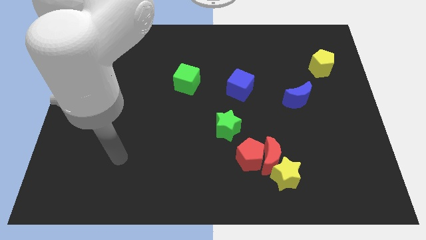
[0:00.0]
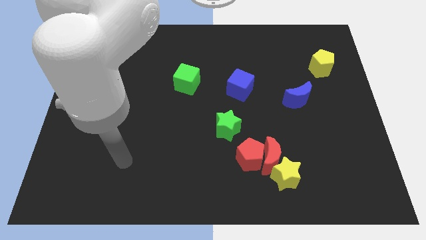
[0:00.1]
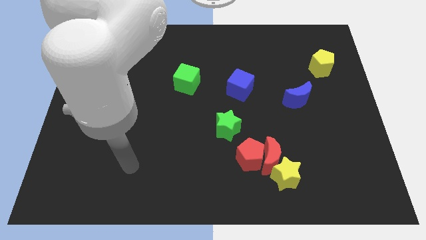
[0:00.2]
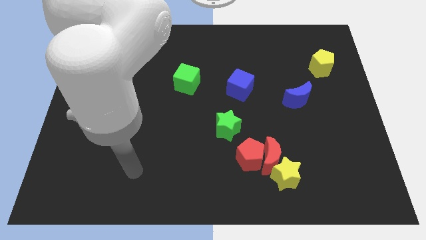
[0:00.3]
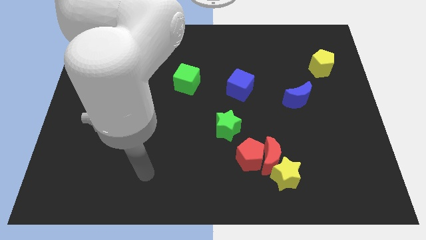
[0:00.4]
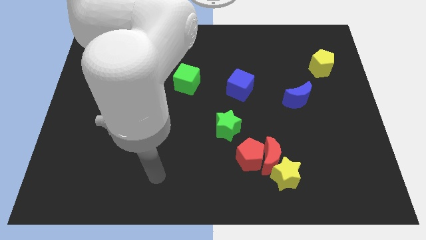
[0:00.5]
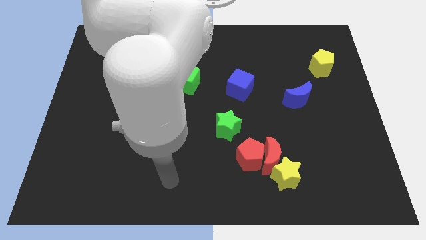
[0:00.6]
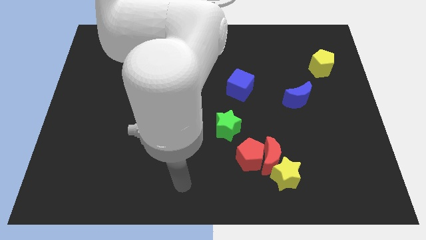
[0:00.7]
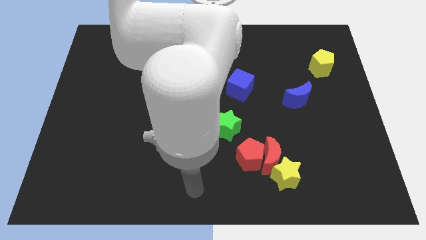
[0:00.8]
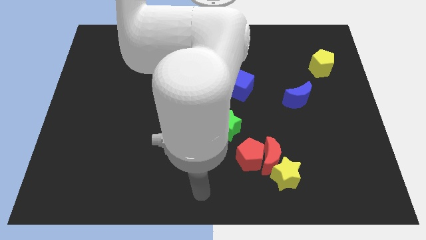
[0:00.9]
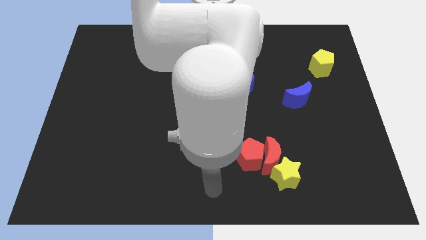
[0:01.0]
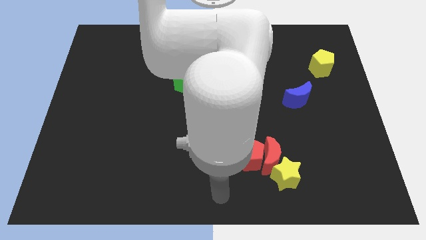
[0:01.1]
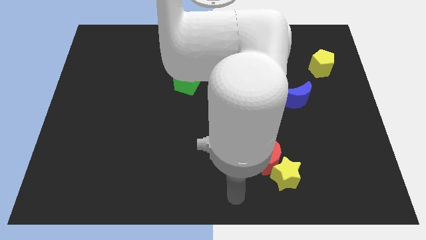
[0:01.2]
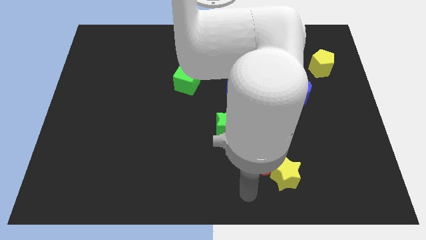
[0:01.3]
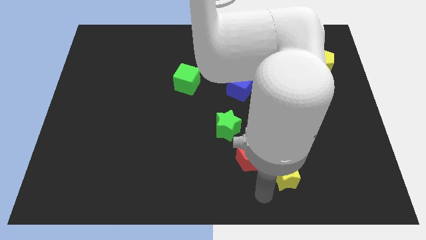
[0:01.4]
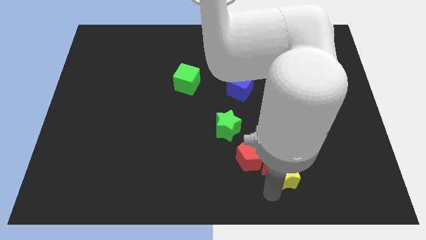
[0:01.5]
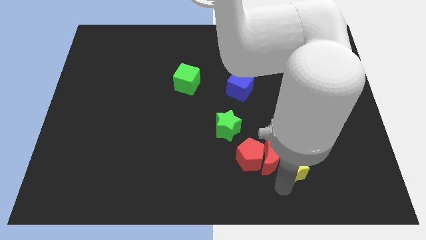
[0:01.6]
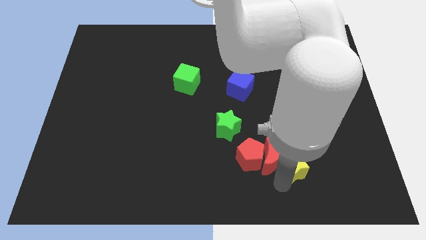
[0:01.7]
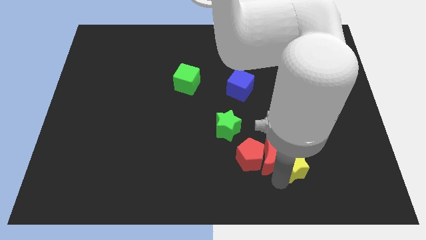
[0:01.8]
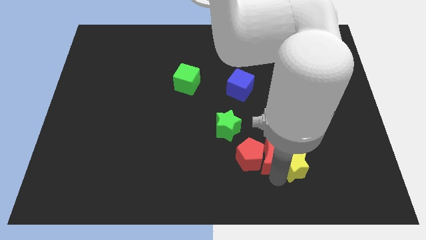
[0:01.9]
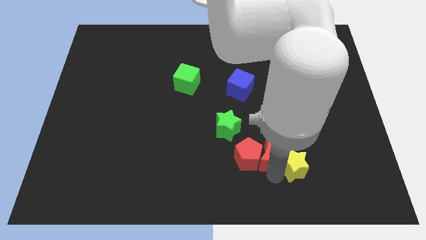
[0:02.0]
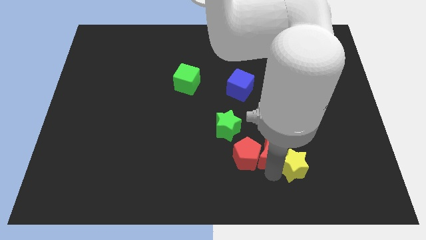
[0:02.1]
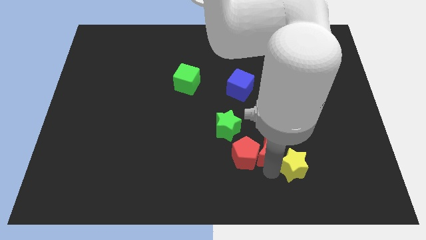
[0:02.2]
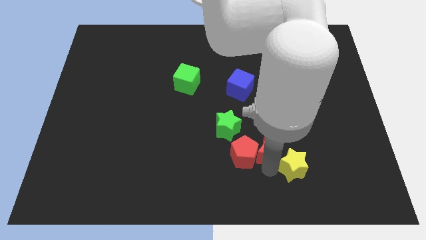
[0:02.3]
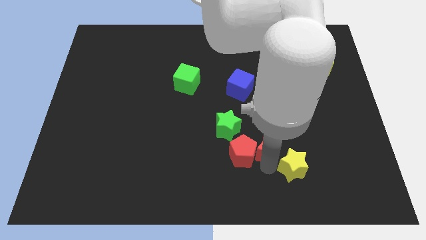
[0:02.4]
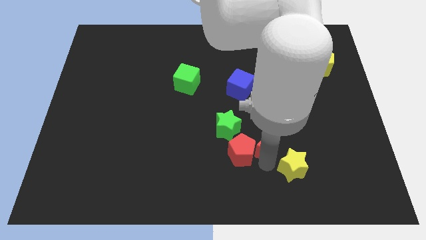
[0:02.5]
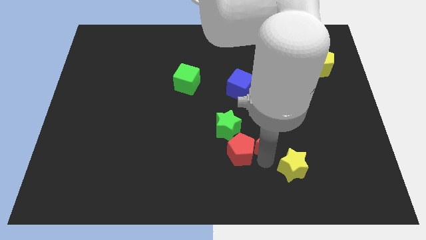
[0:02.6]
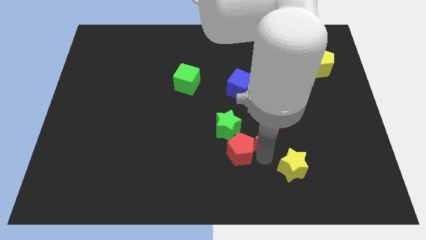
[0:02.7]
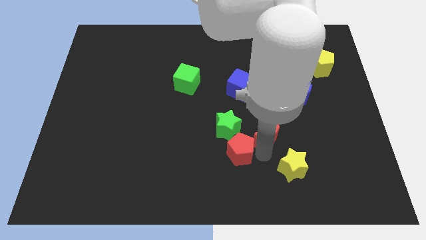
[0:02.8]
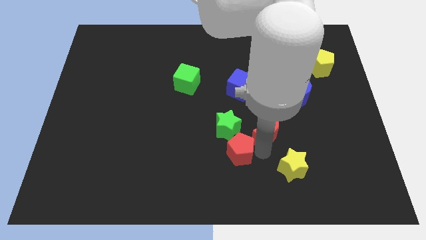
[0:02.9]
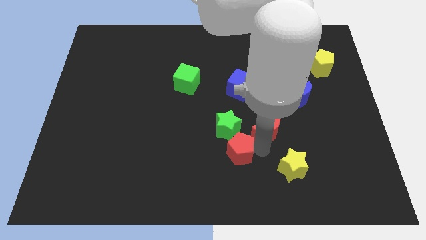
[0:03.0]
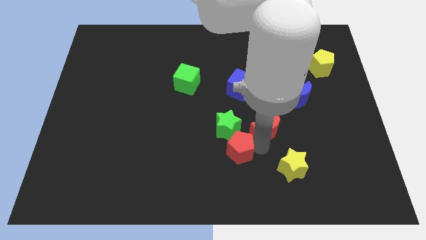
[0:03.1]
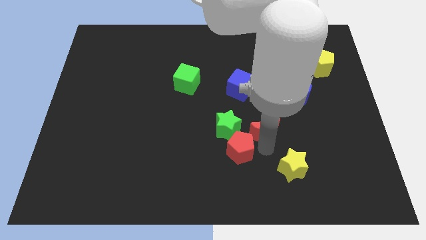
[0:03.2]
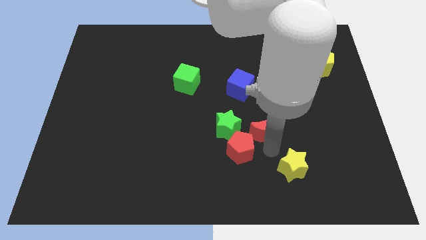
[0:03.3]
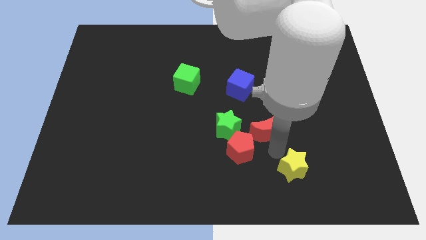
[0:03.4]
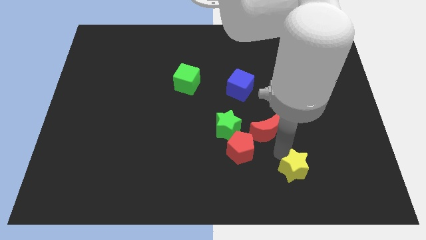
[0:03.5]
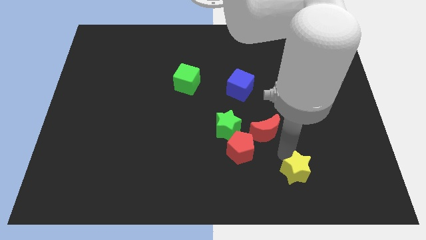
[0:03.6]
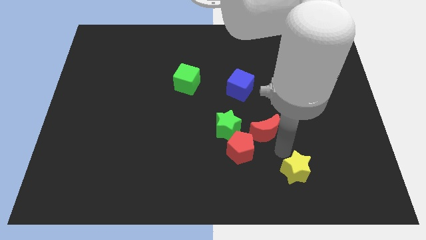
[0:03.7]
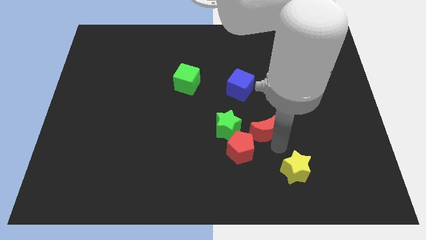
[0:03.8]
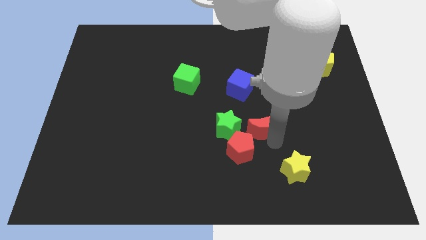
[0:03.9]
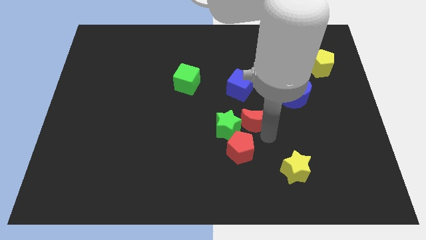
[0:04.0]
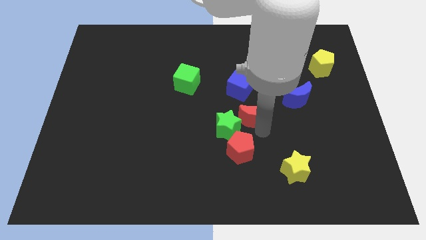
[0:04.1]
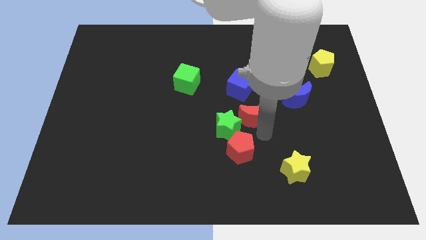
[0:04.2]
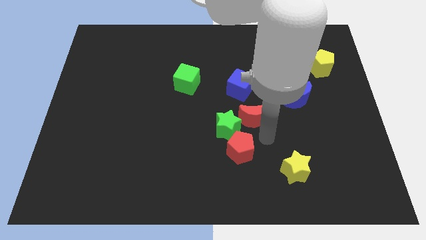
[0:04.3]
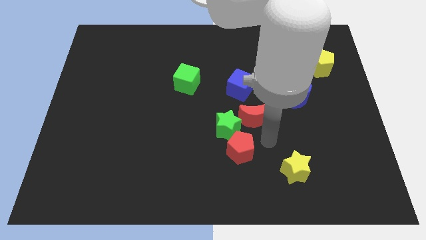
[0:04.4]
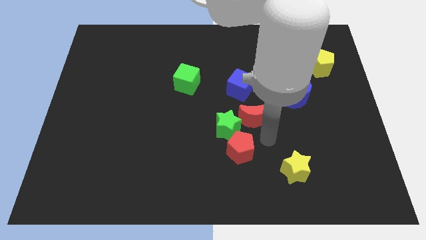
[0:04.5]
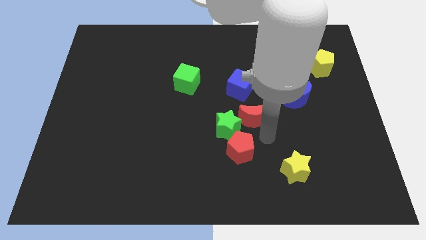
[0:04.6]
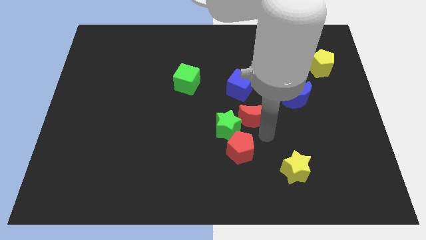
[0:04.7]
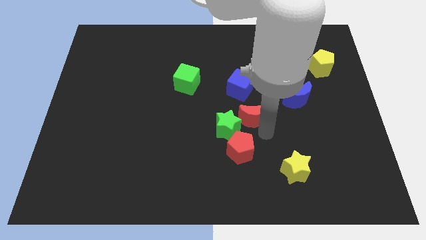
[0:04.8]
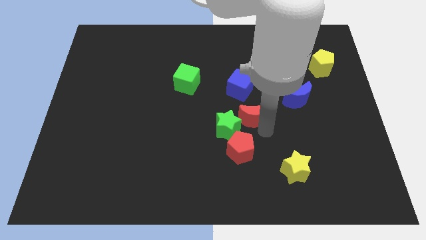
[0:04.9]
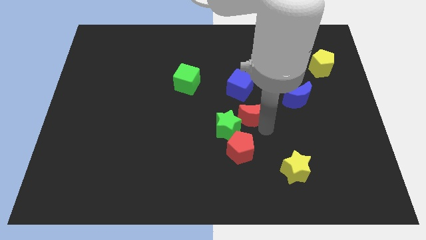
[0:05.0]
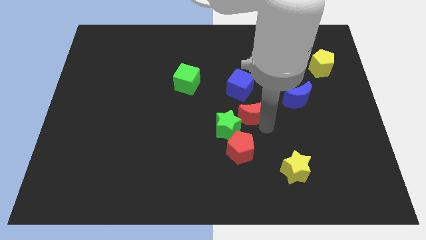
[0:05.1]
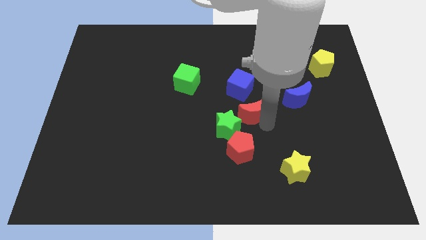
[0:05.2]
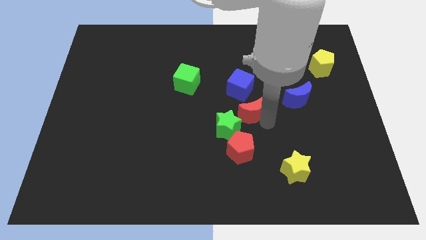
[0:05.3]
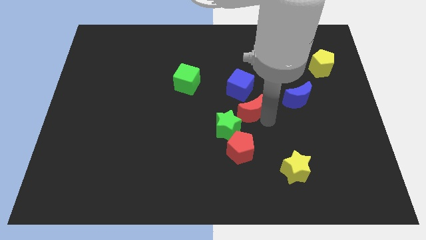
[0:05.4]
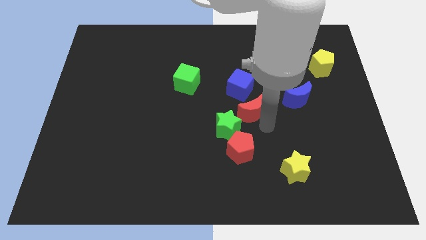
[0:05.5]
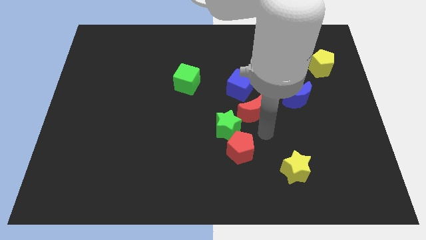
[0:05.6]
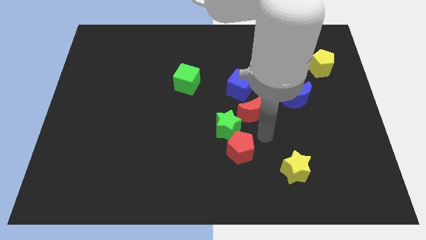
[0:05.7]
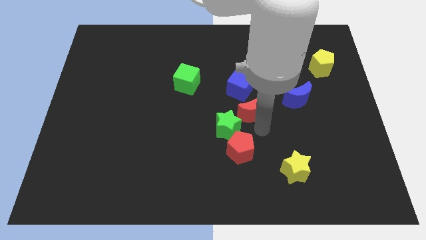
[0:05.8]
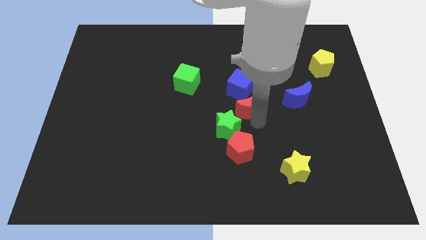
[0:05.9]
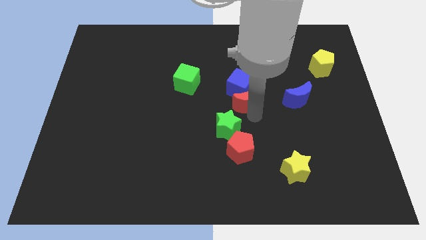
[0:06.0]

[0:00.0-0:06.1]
slide the red moon close to the blue cube

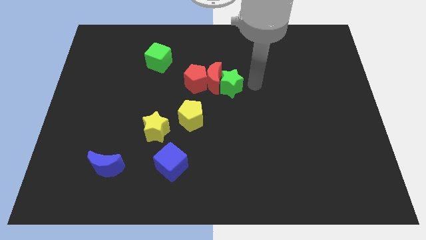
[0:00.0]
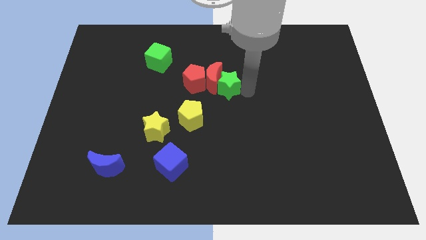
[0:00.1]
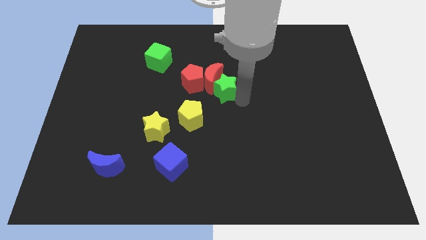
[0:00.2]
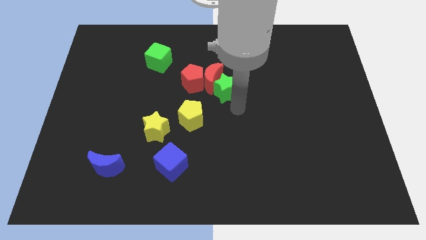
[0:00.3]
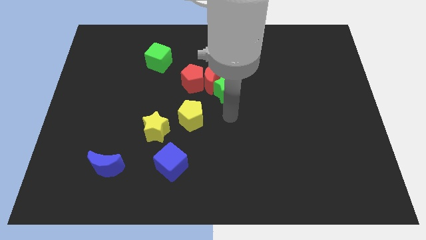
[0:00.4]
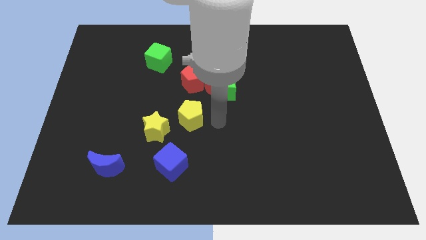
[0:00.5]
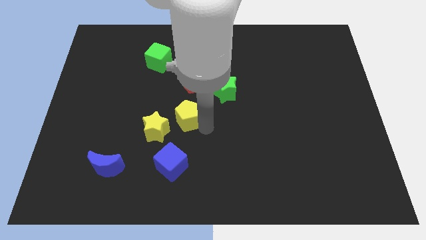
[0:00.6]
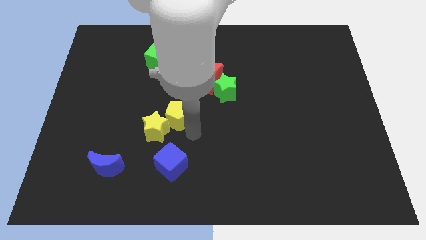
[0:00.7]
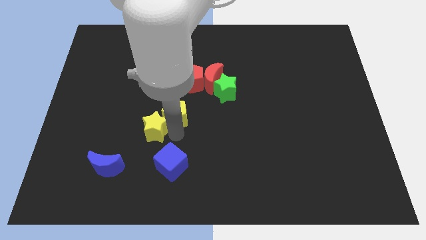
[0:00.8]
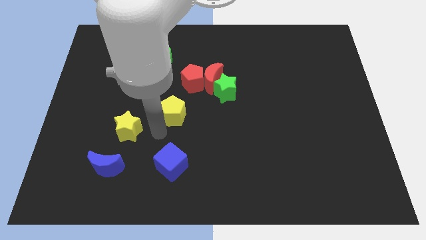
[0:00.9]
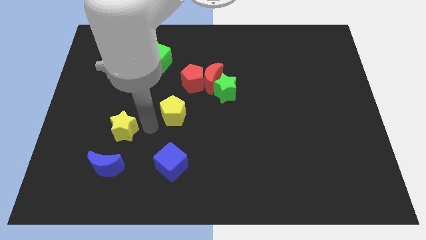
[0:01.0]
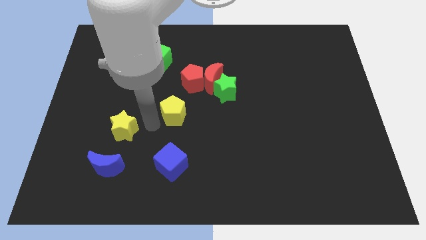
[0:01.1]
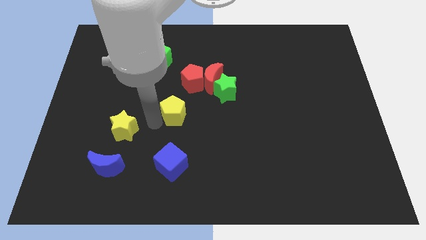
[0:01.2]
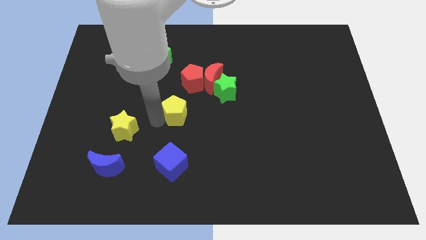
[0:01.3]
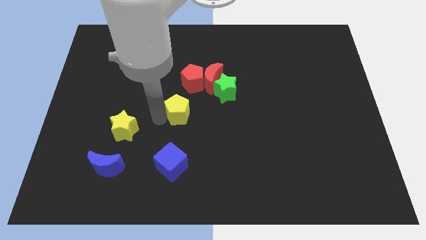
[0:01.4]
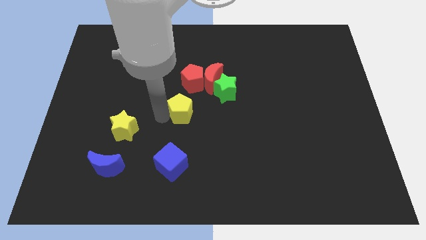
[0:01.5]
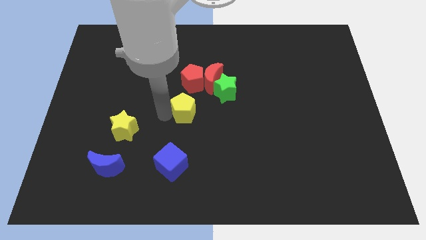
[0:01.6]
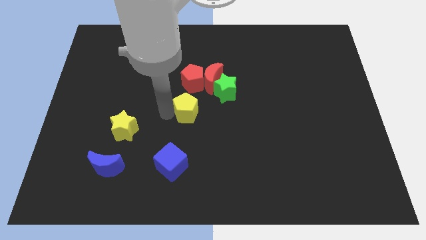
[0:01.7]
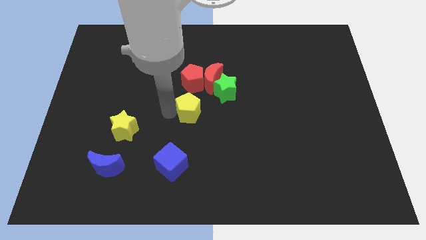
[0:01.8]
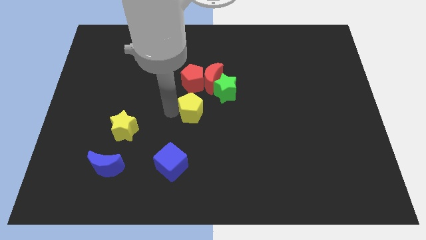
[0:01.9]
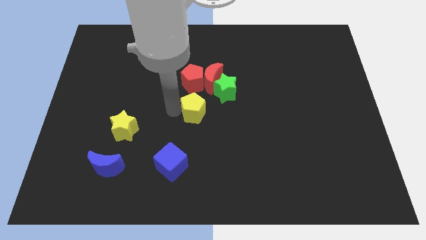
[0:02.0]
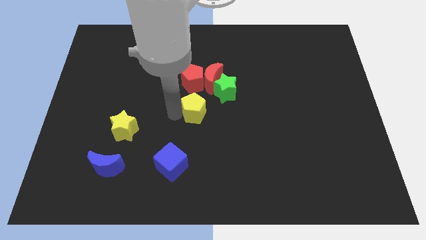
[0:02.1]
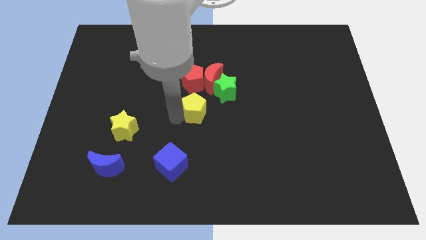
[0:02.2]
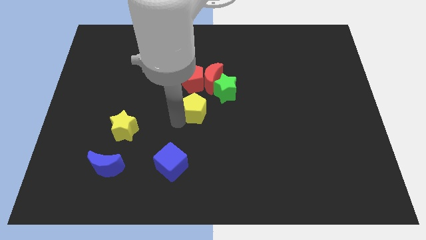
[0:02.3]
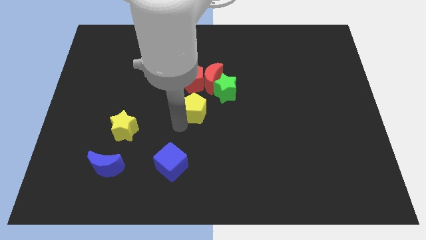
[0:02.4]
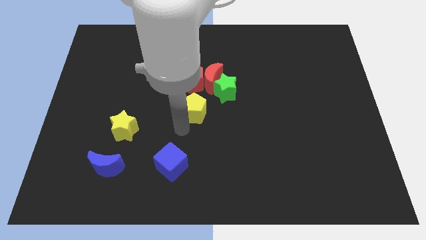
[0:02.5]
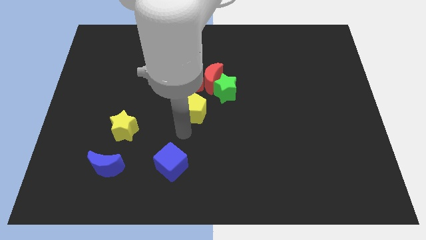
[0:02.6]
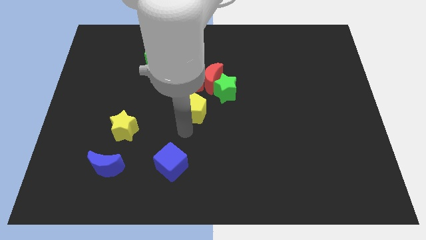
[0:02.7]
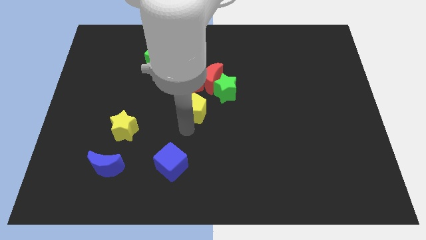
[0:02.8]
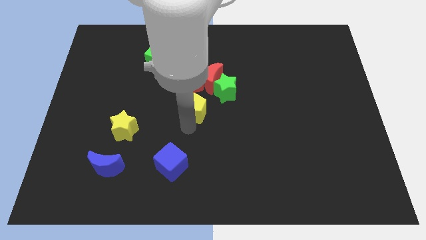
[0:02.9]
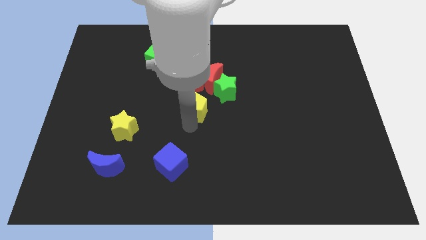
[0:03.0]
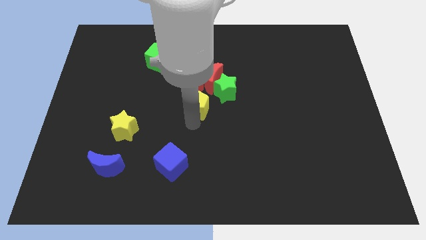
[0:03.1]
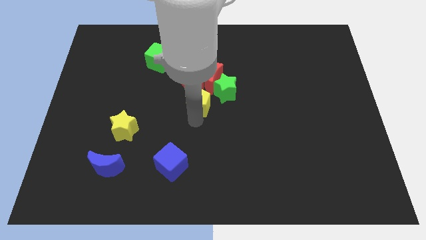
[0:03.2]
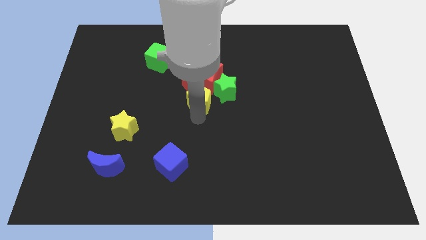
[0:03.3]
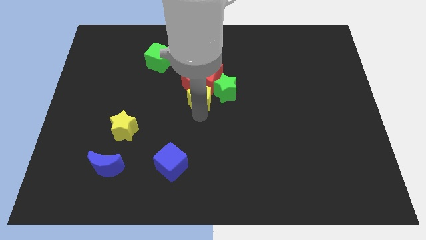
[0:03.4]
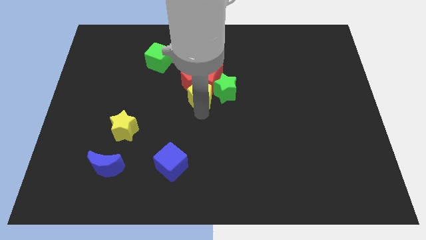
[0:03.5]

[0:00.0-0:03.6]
push the yellow pentagon to the red moon
